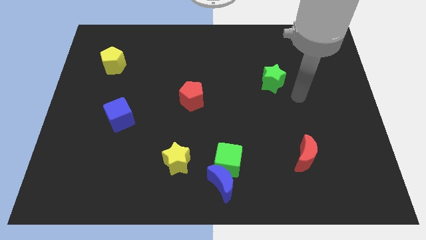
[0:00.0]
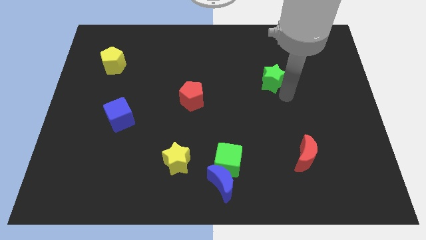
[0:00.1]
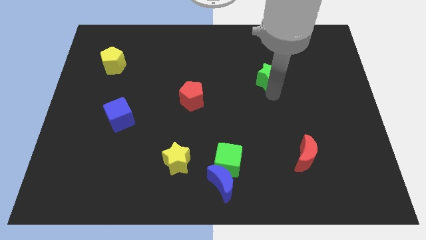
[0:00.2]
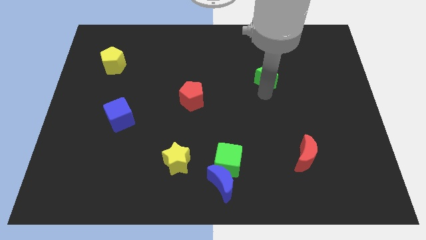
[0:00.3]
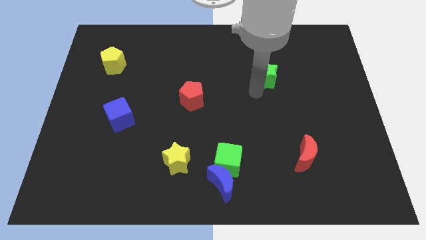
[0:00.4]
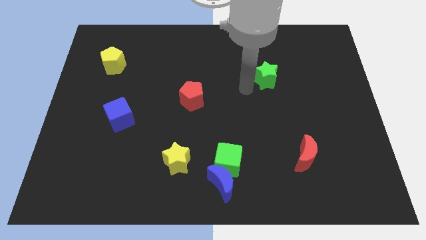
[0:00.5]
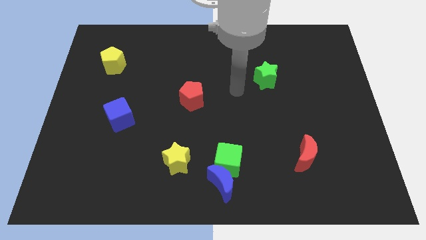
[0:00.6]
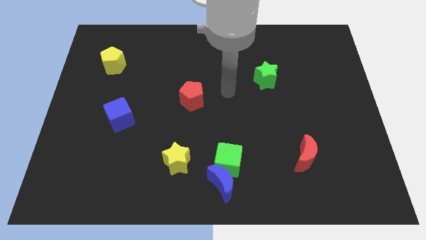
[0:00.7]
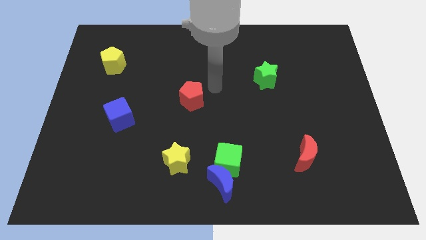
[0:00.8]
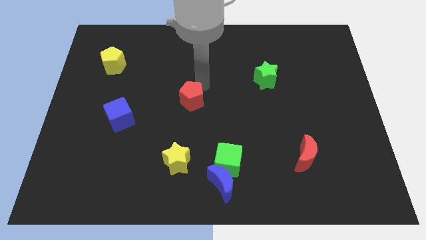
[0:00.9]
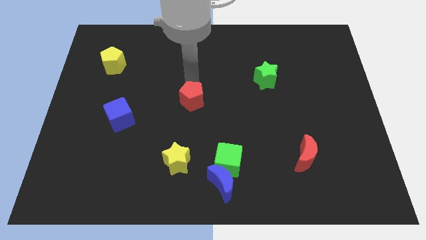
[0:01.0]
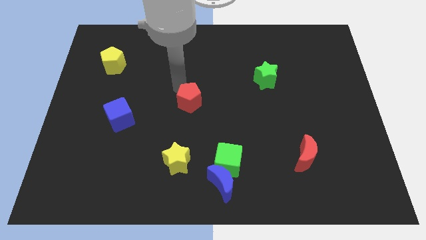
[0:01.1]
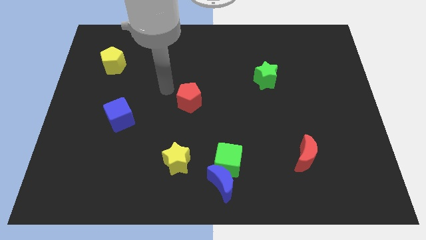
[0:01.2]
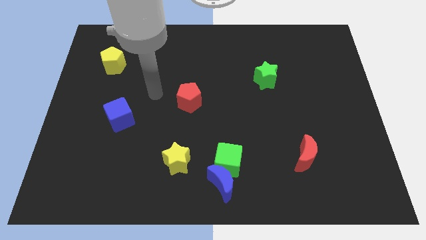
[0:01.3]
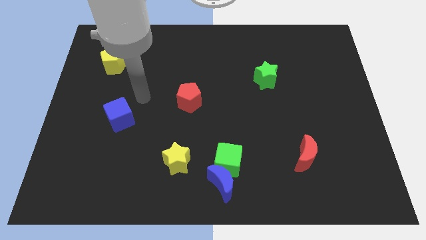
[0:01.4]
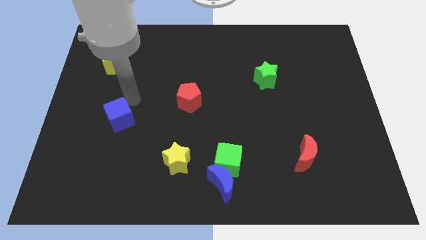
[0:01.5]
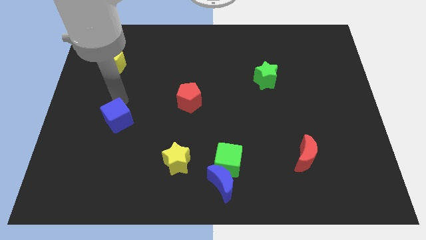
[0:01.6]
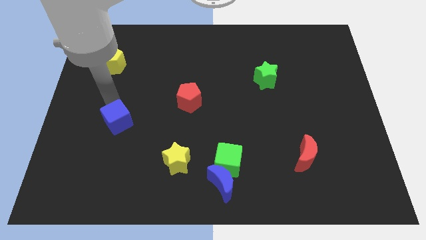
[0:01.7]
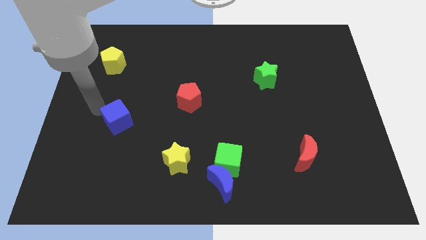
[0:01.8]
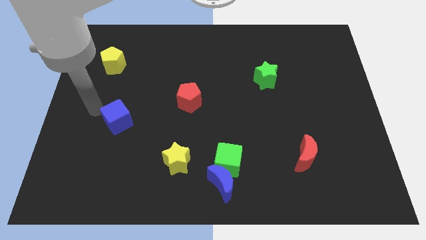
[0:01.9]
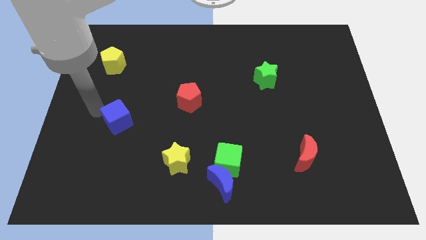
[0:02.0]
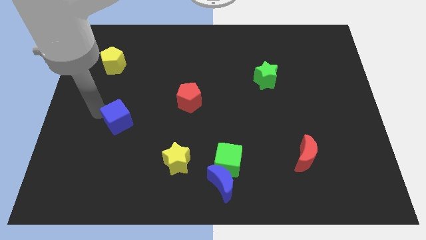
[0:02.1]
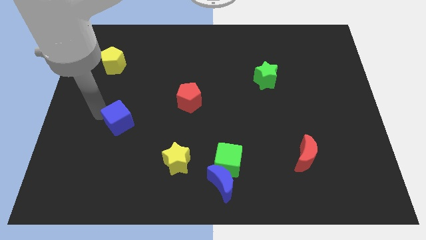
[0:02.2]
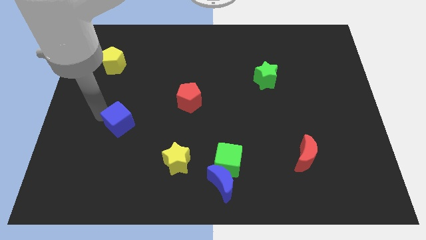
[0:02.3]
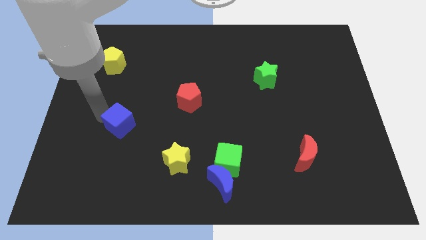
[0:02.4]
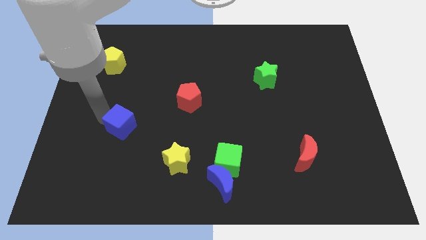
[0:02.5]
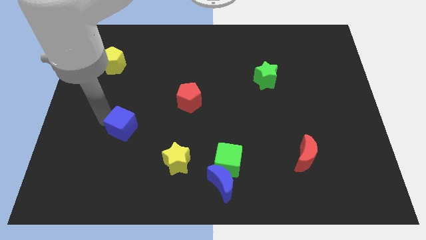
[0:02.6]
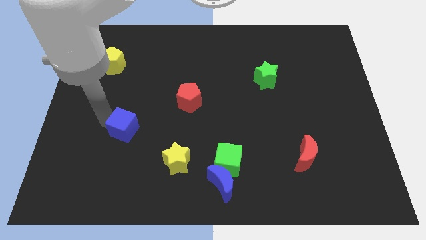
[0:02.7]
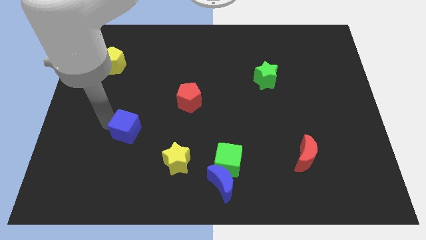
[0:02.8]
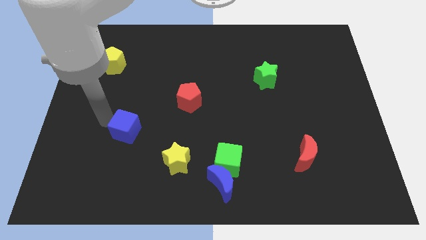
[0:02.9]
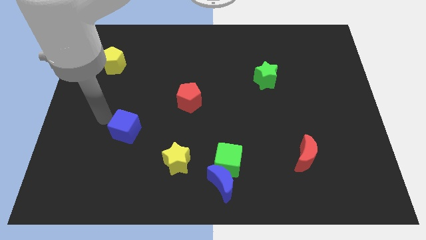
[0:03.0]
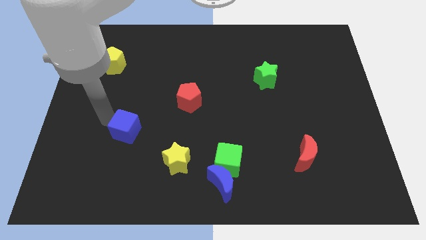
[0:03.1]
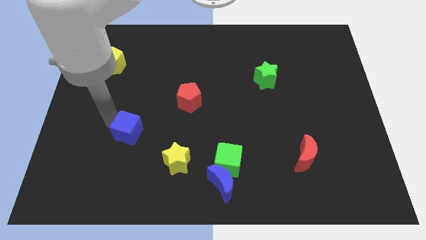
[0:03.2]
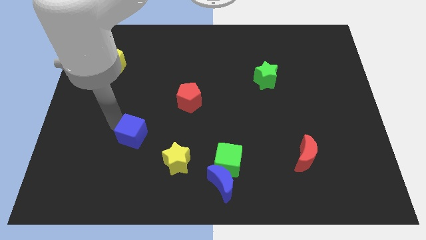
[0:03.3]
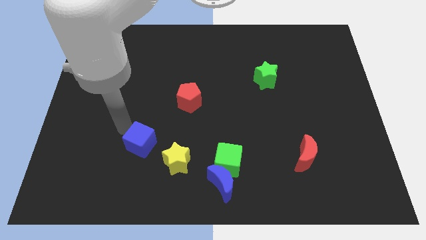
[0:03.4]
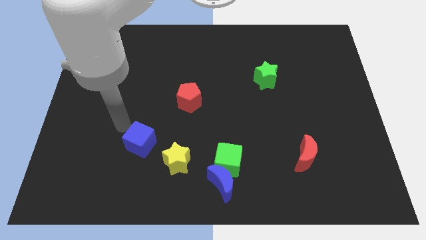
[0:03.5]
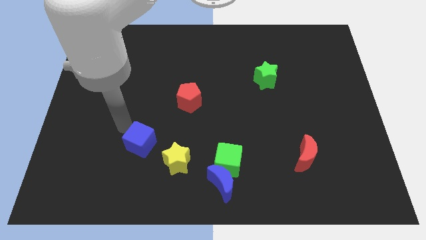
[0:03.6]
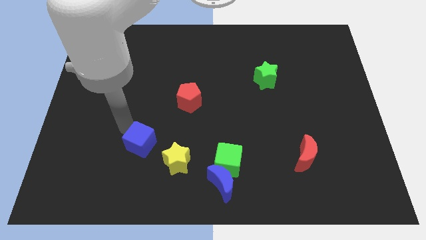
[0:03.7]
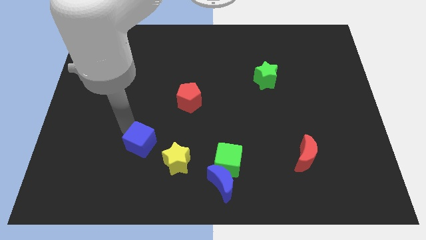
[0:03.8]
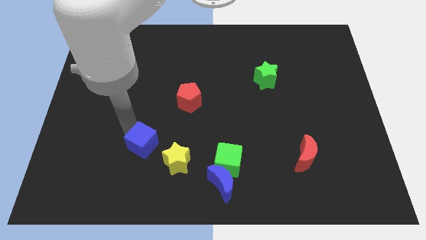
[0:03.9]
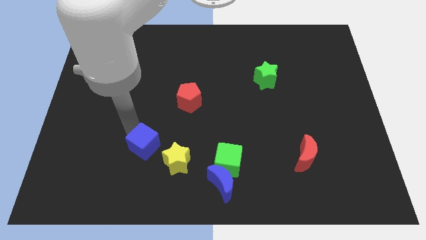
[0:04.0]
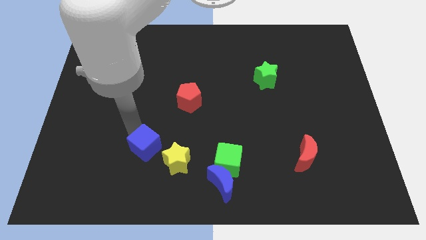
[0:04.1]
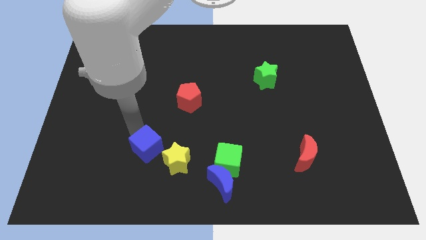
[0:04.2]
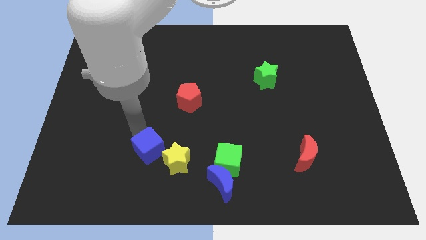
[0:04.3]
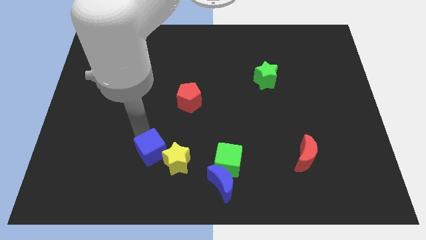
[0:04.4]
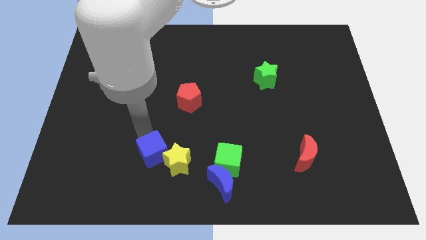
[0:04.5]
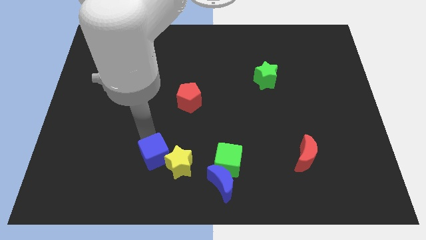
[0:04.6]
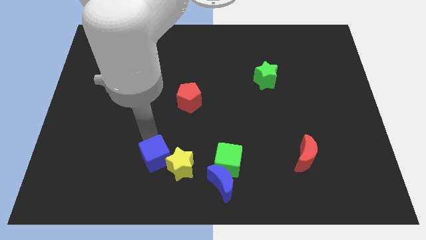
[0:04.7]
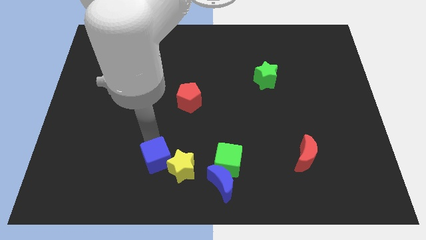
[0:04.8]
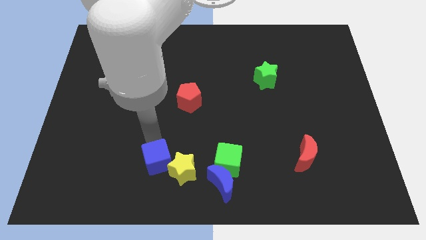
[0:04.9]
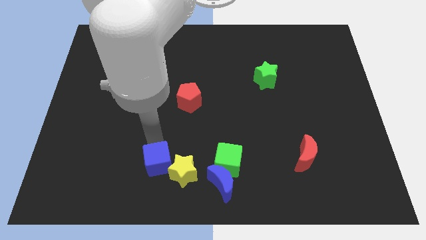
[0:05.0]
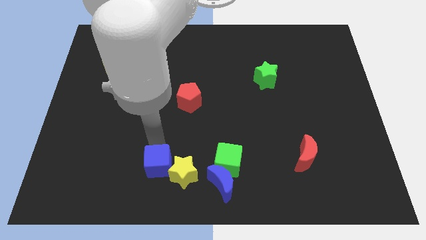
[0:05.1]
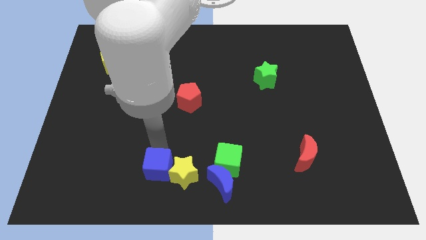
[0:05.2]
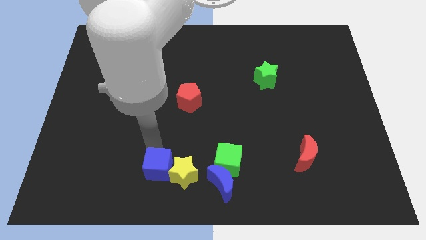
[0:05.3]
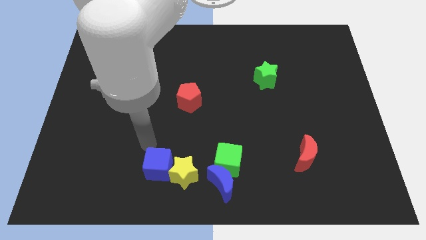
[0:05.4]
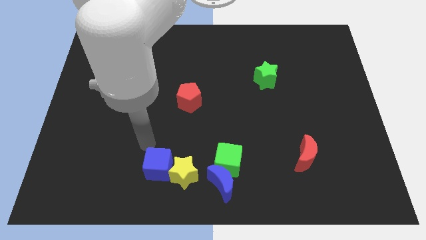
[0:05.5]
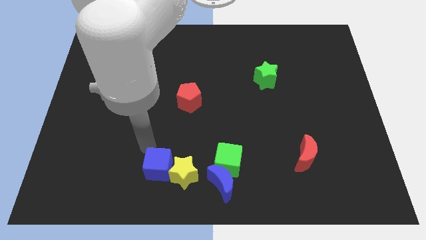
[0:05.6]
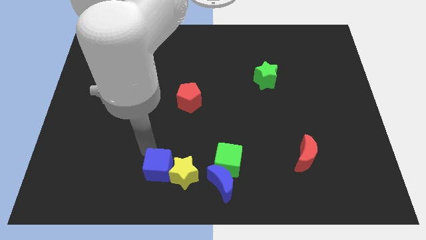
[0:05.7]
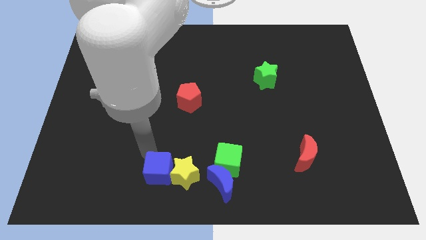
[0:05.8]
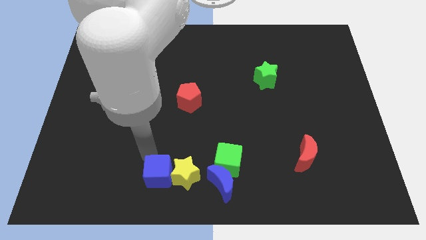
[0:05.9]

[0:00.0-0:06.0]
push the blue cube to the bottom side

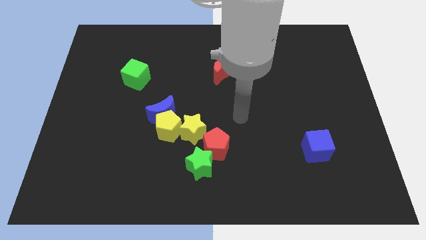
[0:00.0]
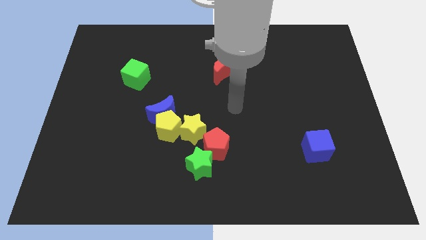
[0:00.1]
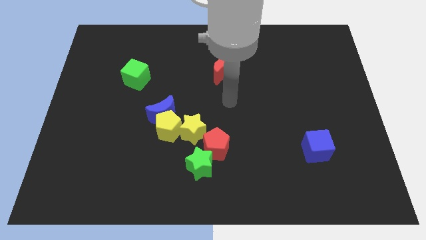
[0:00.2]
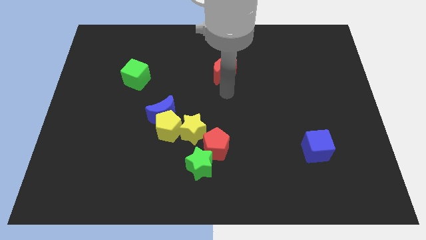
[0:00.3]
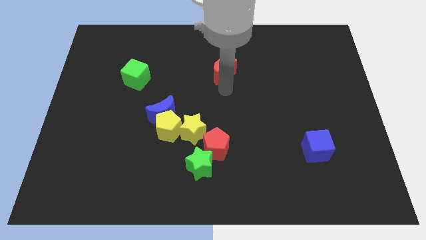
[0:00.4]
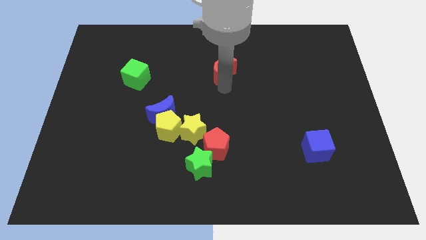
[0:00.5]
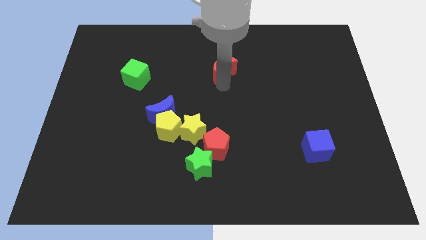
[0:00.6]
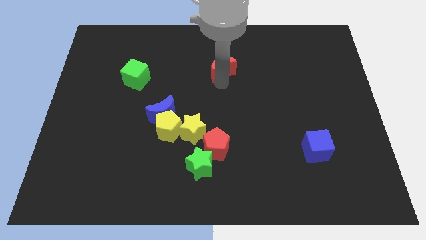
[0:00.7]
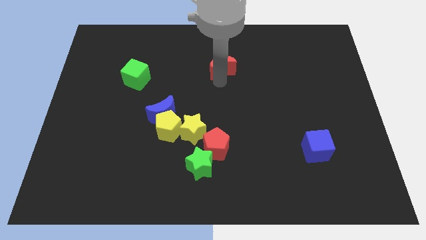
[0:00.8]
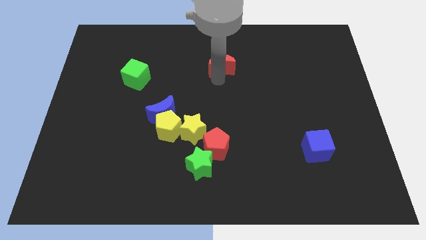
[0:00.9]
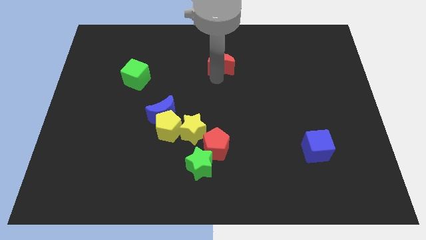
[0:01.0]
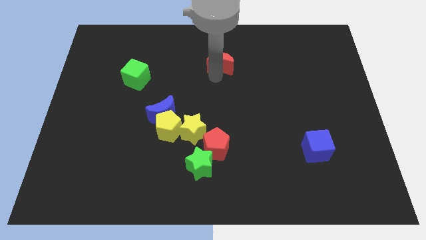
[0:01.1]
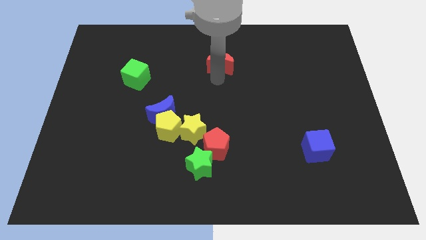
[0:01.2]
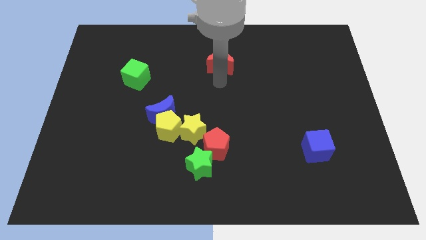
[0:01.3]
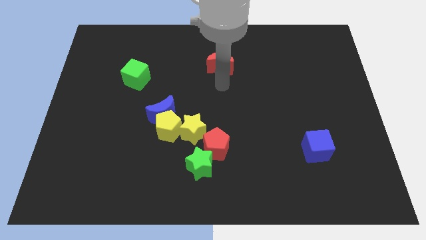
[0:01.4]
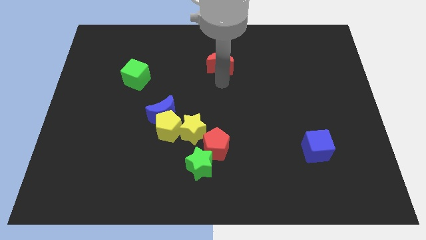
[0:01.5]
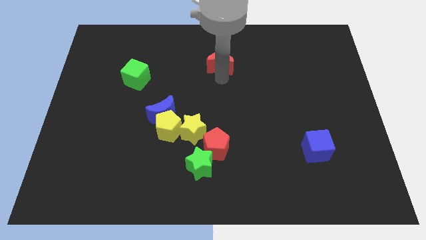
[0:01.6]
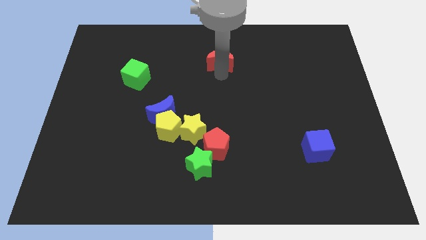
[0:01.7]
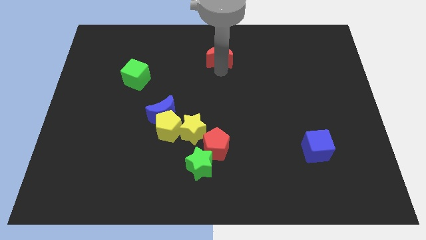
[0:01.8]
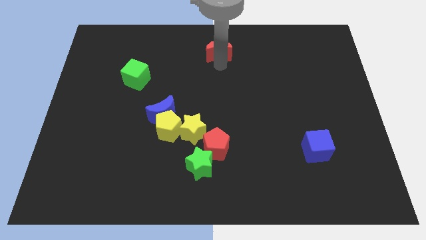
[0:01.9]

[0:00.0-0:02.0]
move the red moon to the top
